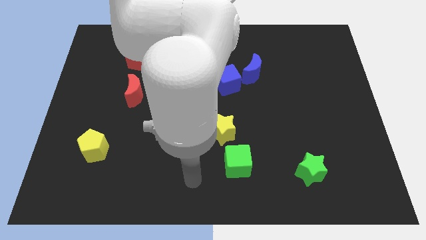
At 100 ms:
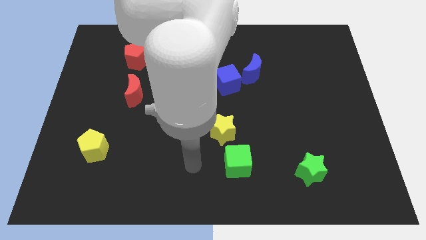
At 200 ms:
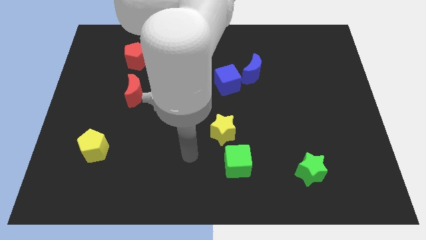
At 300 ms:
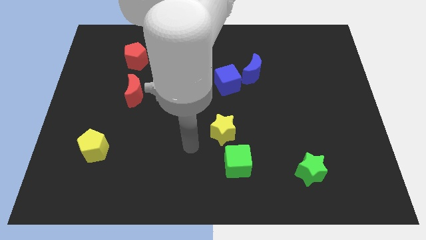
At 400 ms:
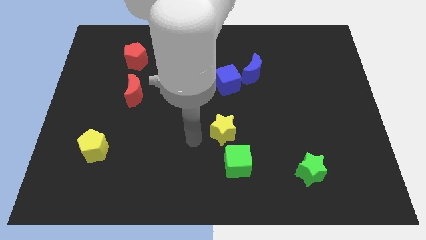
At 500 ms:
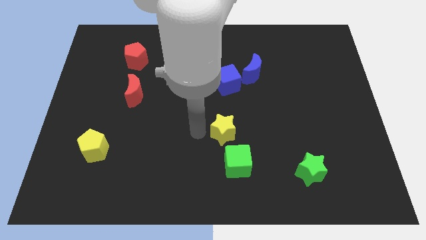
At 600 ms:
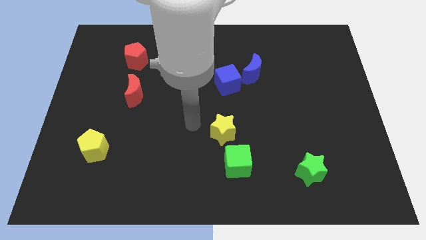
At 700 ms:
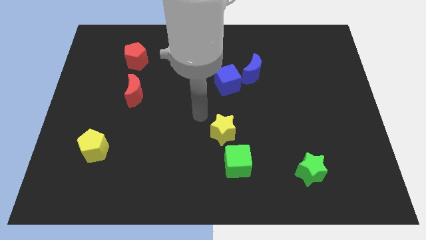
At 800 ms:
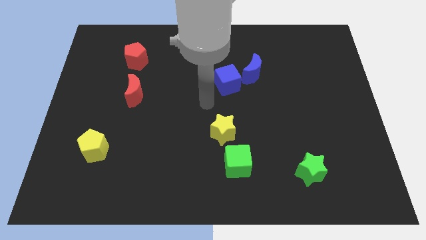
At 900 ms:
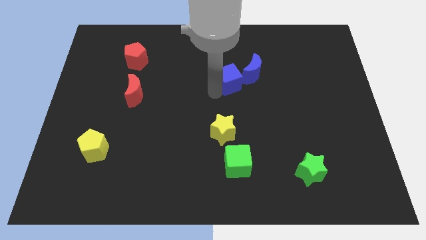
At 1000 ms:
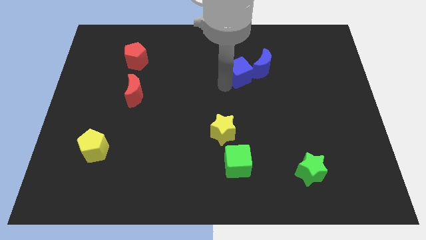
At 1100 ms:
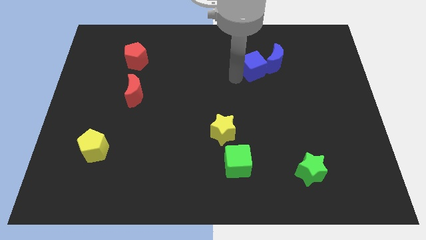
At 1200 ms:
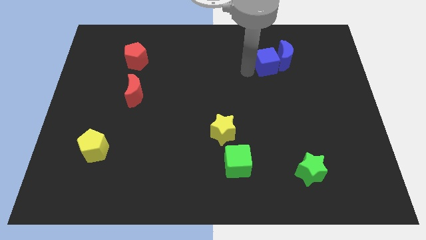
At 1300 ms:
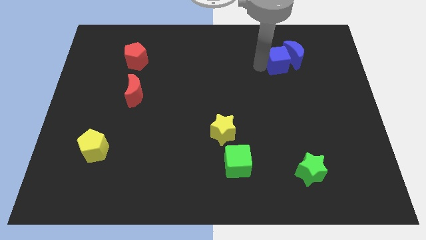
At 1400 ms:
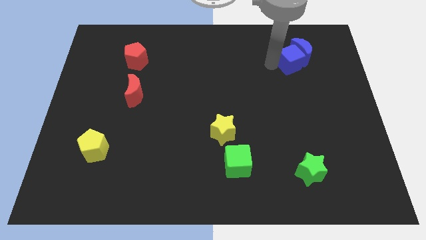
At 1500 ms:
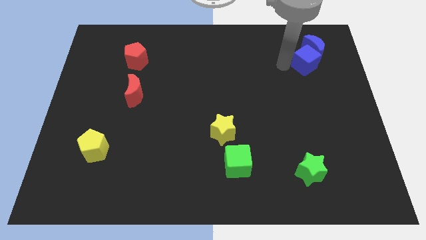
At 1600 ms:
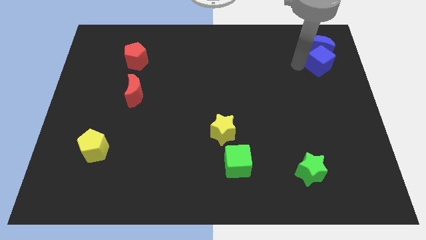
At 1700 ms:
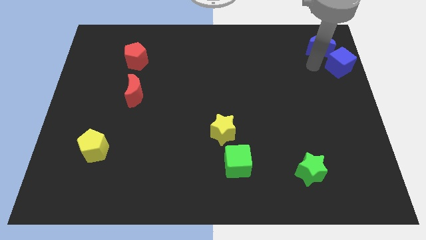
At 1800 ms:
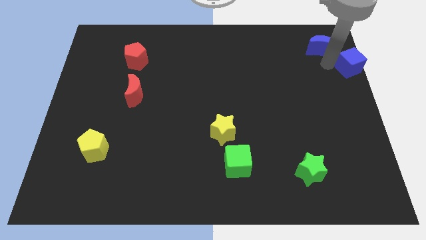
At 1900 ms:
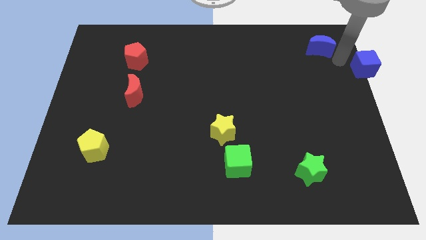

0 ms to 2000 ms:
separate the blue moon from the blue cube

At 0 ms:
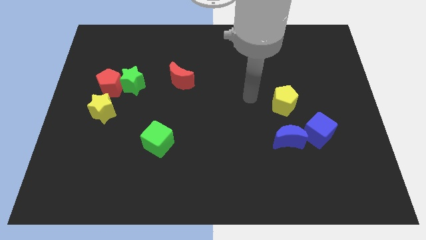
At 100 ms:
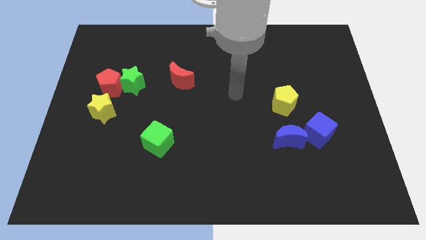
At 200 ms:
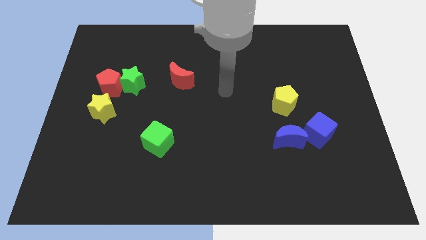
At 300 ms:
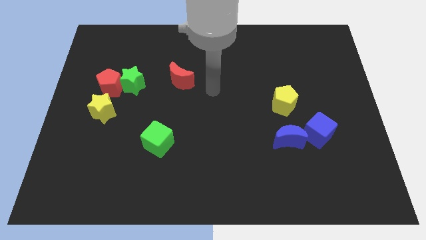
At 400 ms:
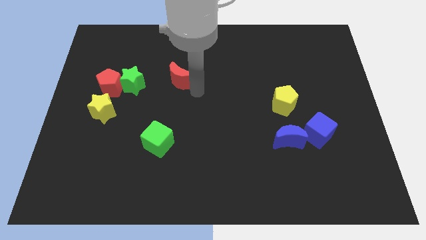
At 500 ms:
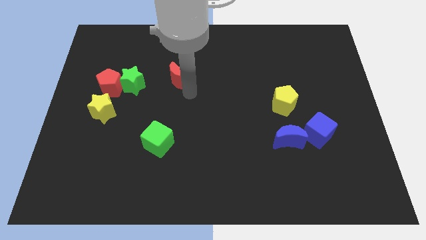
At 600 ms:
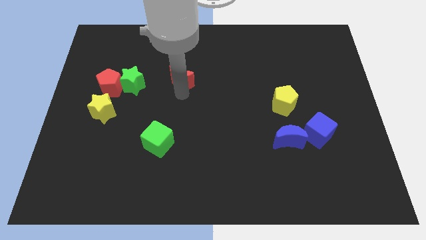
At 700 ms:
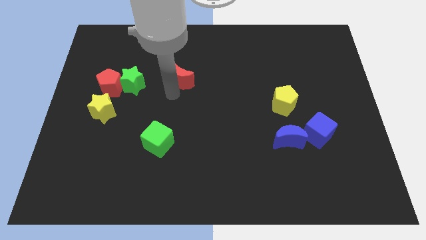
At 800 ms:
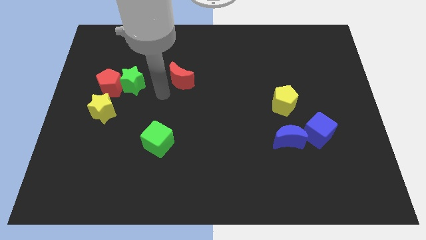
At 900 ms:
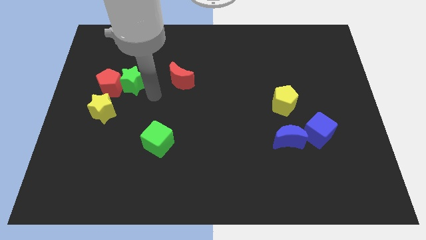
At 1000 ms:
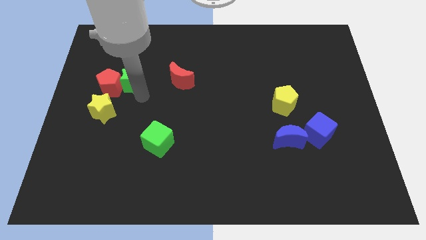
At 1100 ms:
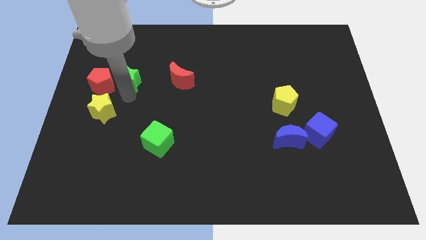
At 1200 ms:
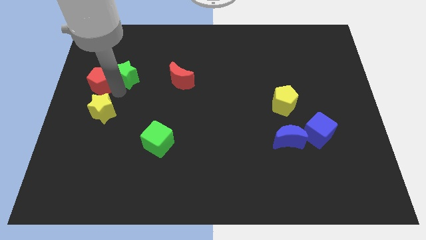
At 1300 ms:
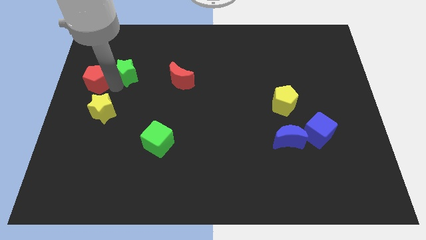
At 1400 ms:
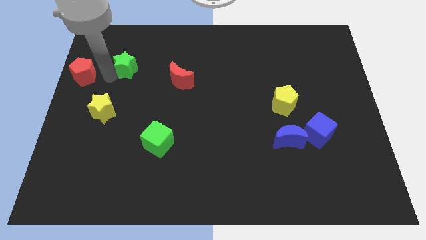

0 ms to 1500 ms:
separate the green star from the red pentagon

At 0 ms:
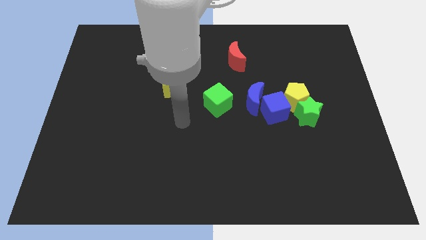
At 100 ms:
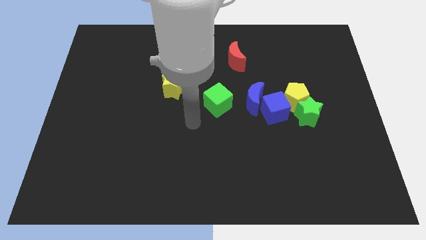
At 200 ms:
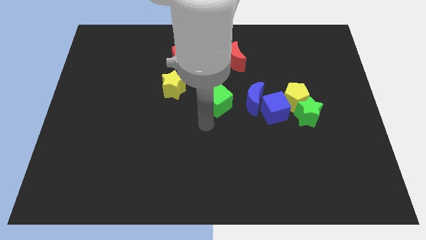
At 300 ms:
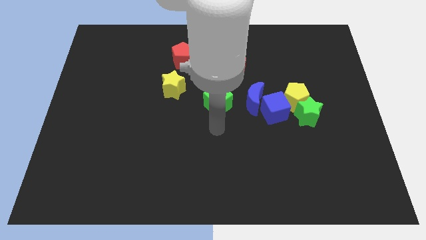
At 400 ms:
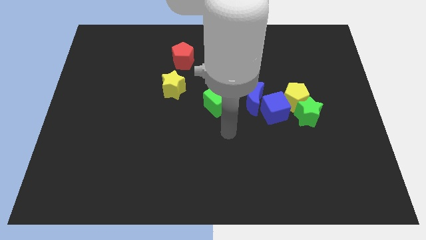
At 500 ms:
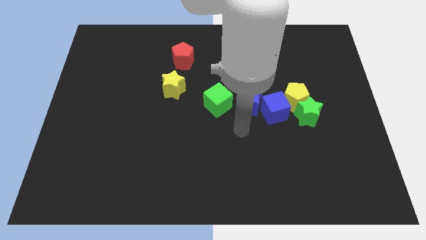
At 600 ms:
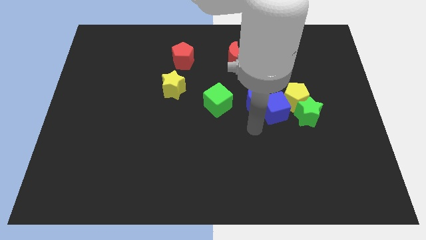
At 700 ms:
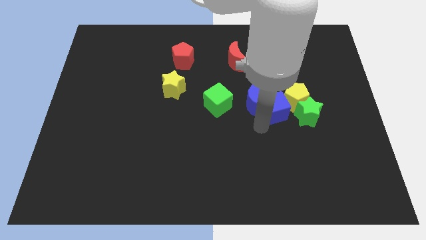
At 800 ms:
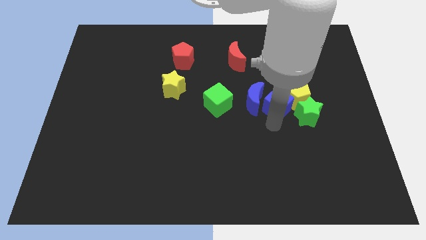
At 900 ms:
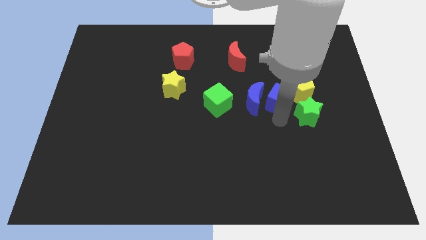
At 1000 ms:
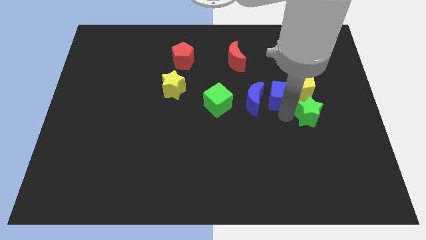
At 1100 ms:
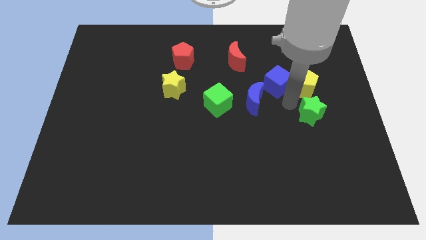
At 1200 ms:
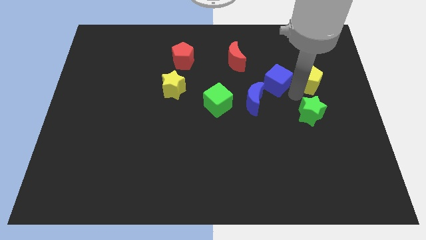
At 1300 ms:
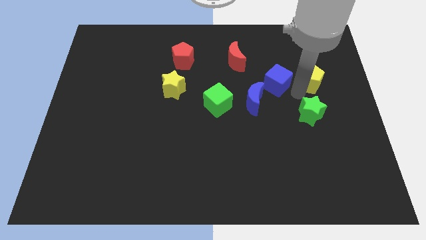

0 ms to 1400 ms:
pull the green star apart from the yellow pentagon and blue cube

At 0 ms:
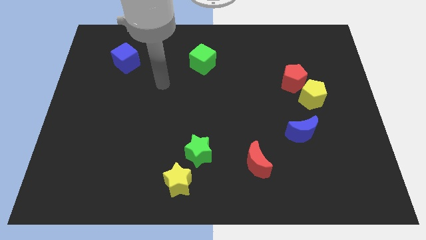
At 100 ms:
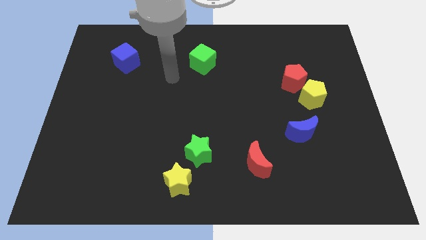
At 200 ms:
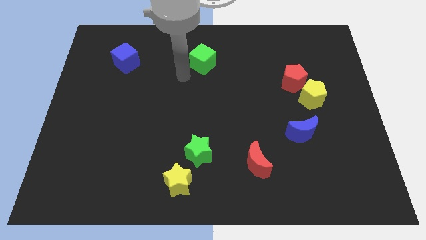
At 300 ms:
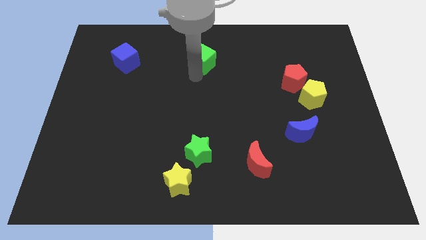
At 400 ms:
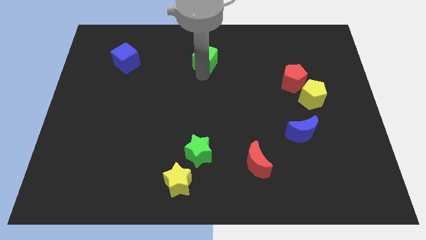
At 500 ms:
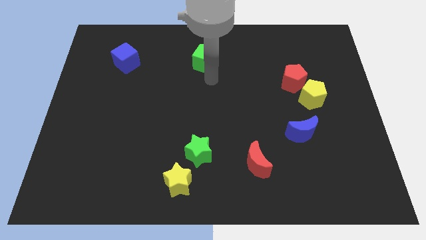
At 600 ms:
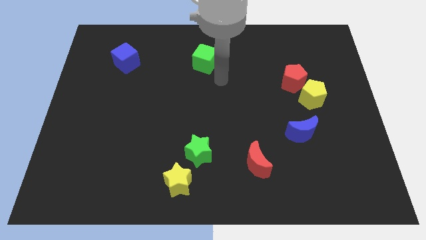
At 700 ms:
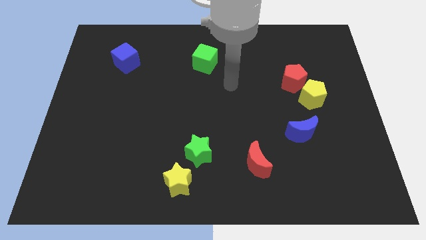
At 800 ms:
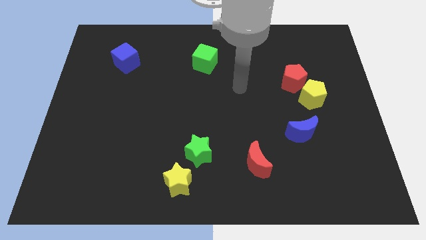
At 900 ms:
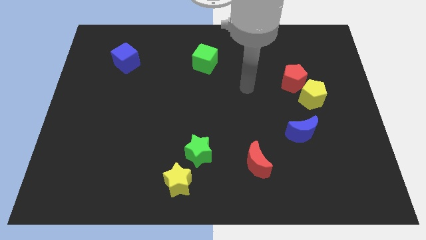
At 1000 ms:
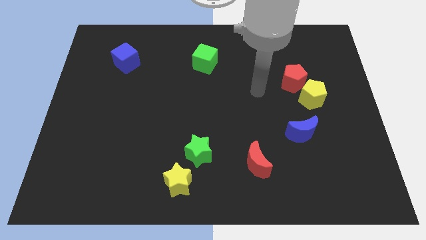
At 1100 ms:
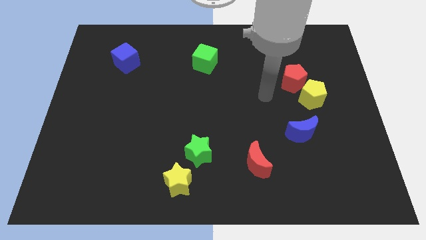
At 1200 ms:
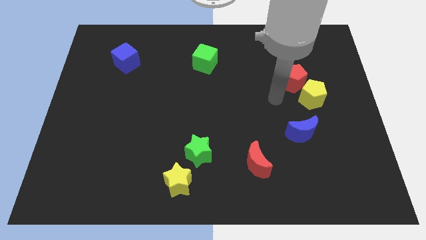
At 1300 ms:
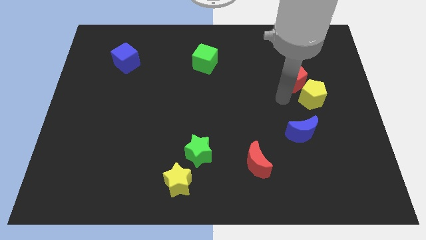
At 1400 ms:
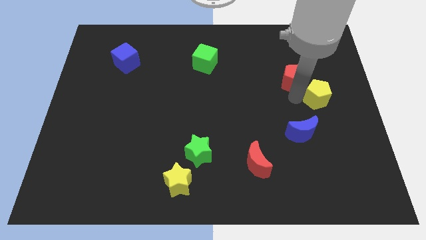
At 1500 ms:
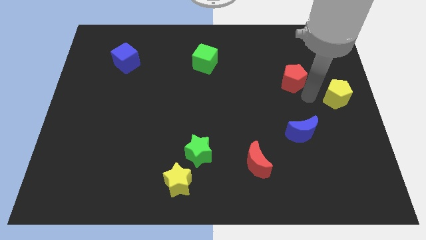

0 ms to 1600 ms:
pull the red pentagon apart from the yellow pentagon

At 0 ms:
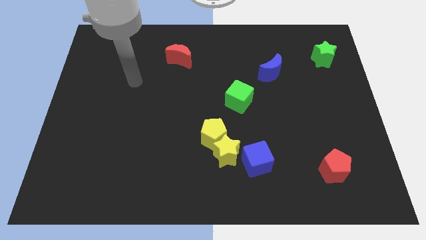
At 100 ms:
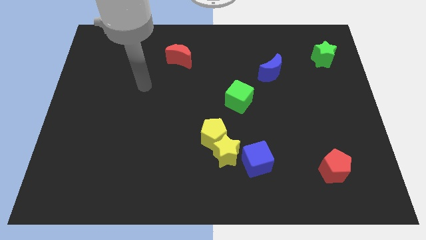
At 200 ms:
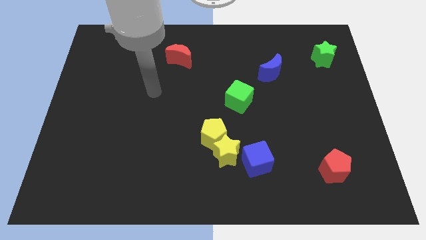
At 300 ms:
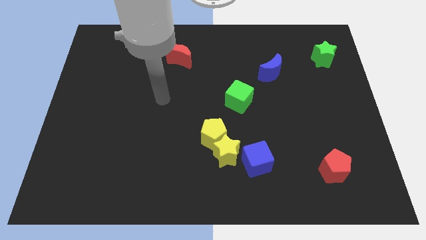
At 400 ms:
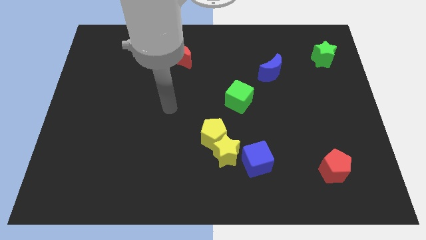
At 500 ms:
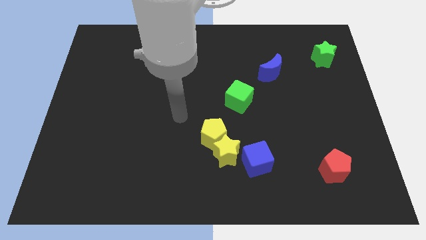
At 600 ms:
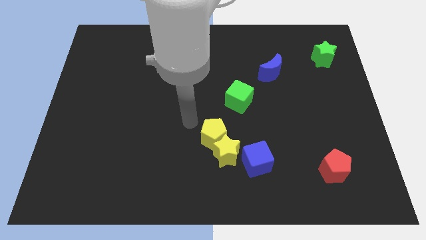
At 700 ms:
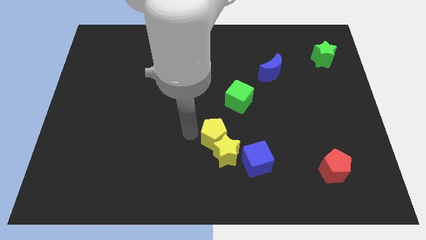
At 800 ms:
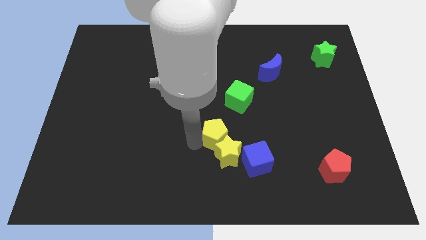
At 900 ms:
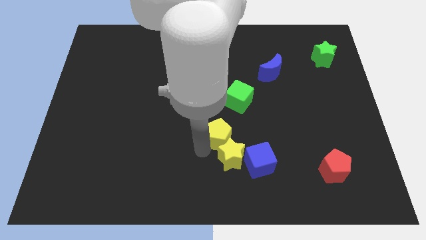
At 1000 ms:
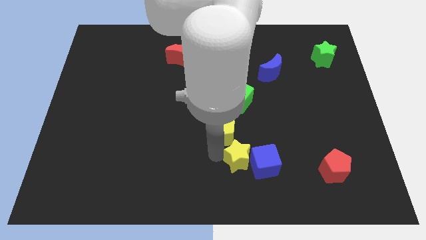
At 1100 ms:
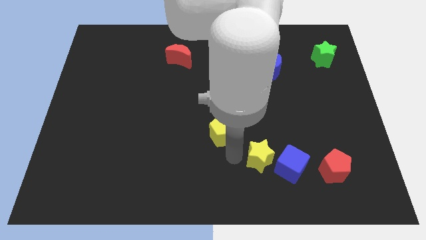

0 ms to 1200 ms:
move the yellow pentagon away from the yellow star

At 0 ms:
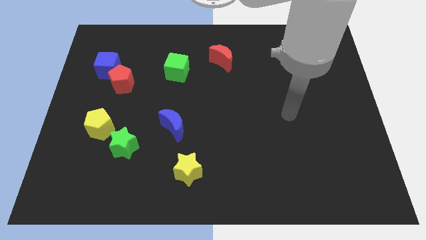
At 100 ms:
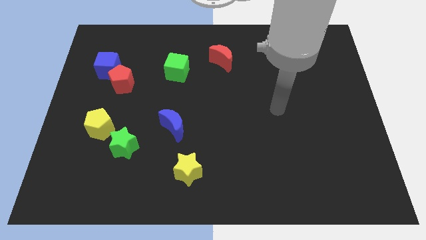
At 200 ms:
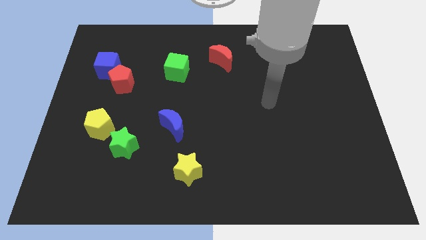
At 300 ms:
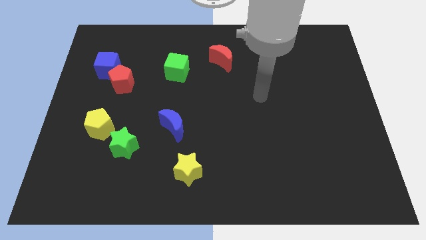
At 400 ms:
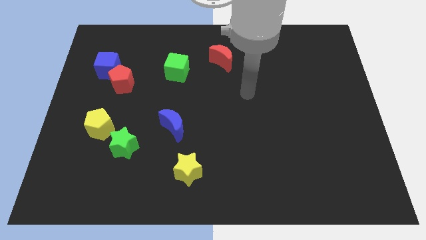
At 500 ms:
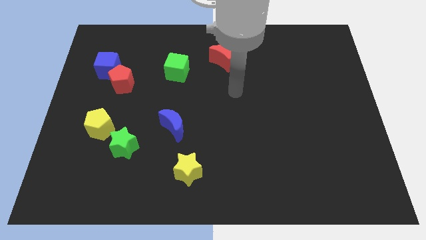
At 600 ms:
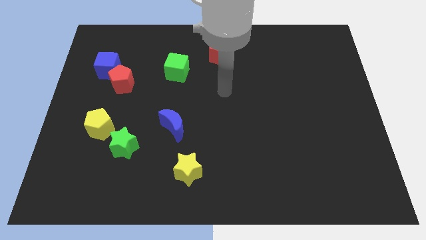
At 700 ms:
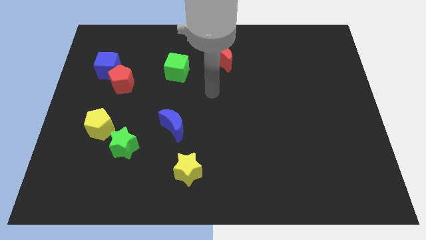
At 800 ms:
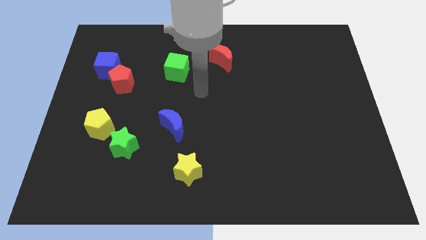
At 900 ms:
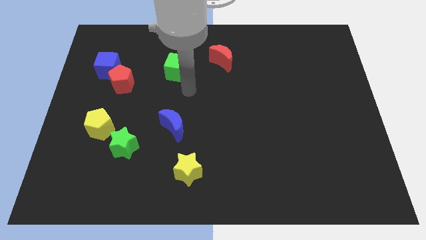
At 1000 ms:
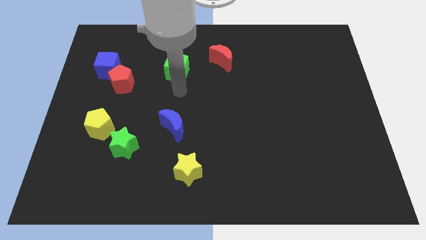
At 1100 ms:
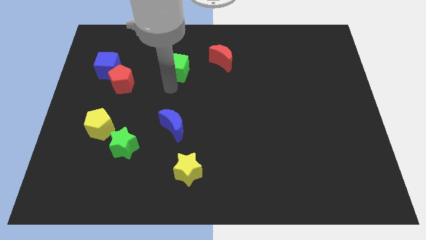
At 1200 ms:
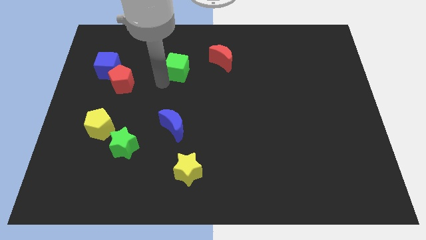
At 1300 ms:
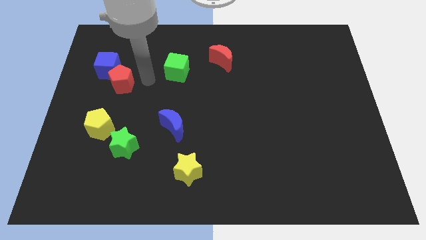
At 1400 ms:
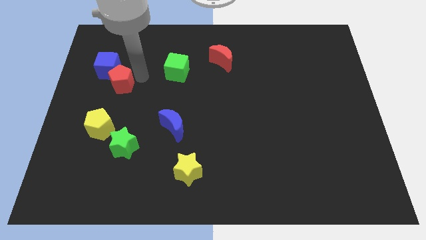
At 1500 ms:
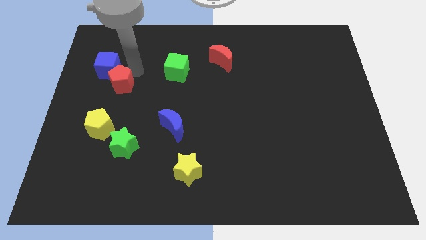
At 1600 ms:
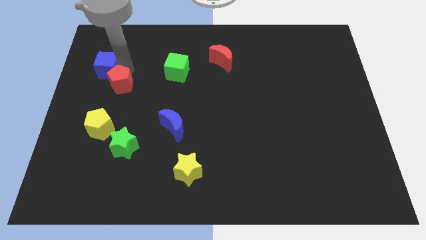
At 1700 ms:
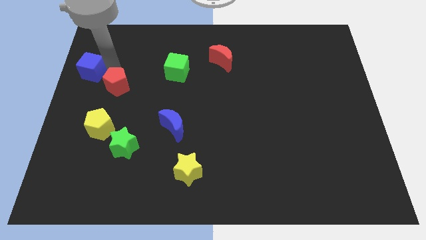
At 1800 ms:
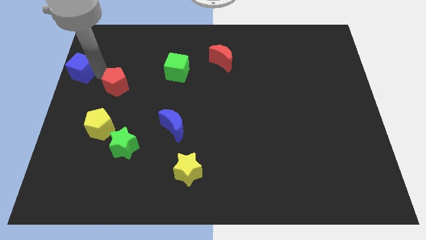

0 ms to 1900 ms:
separate the red pentagon from the blue cube
